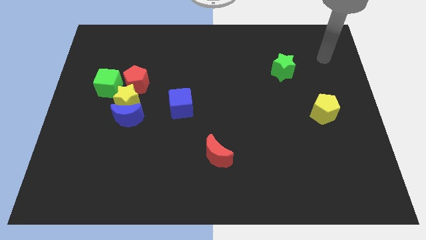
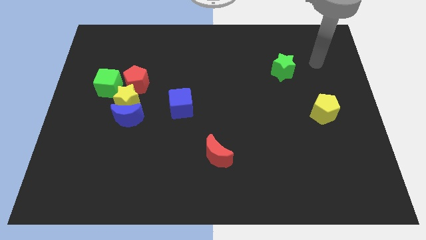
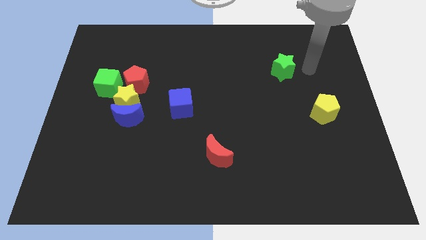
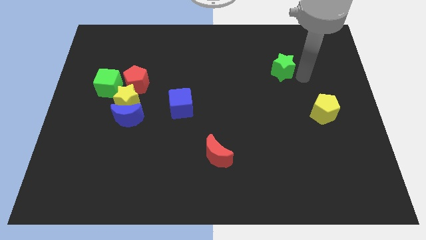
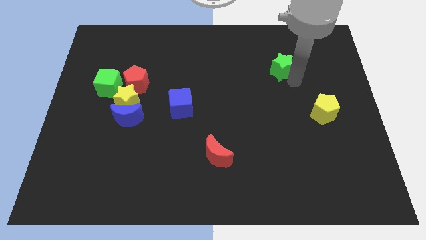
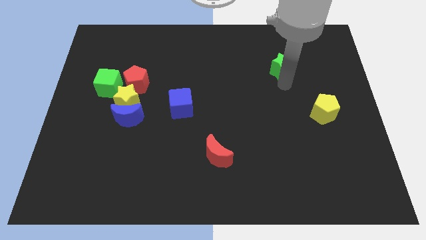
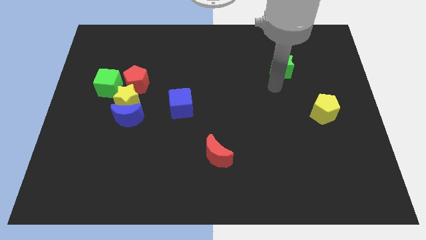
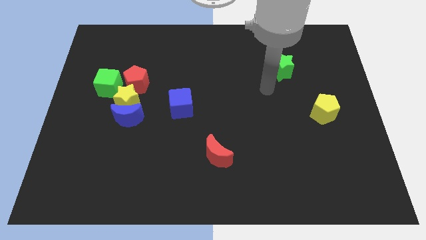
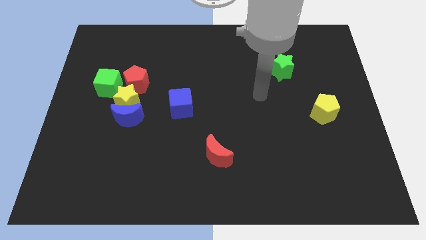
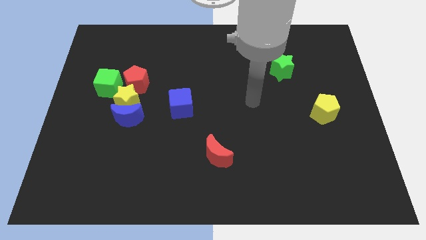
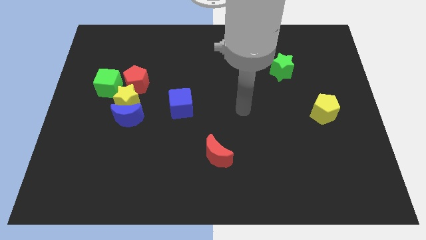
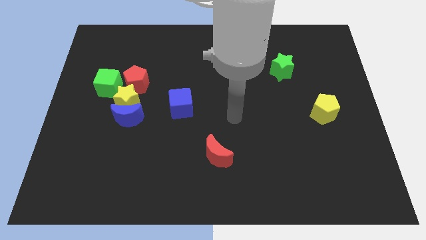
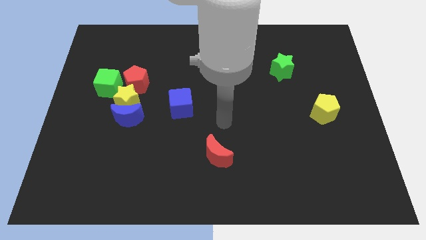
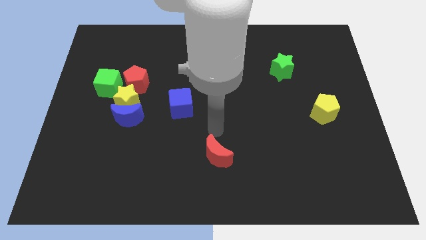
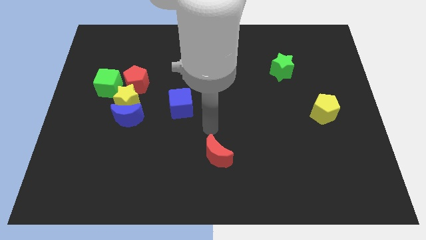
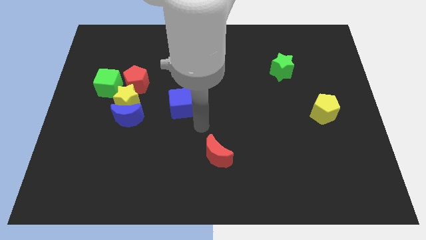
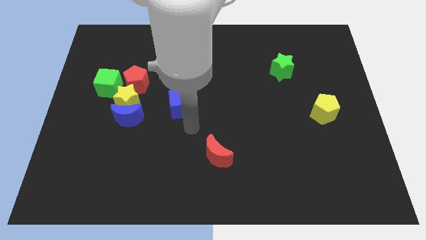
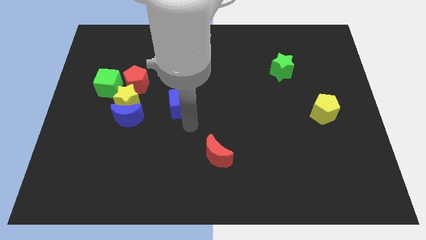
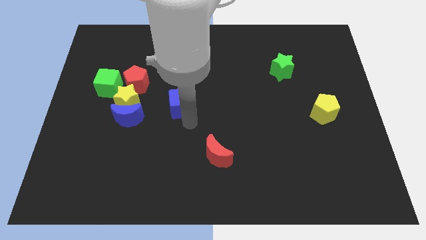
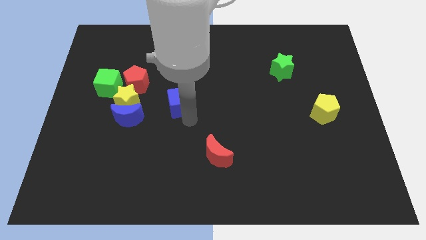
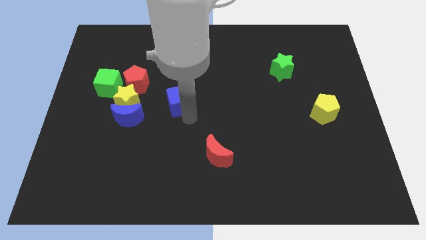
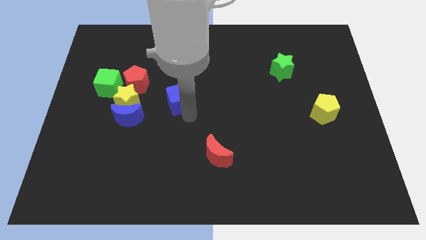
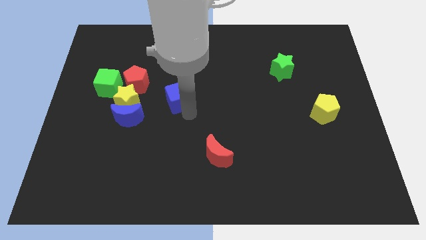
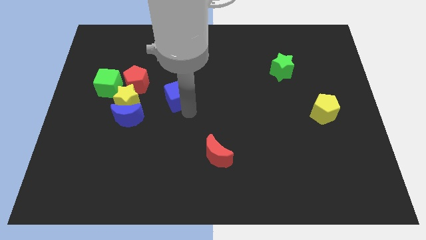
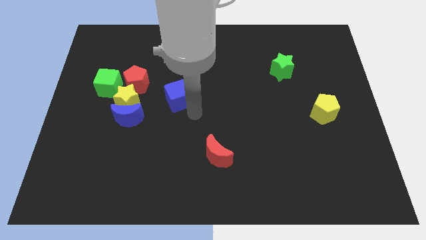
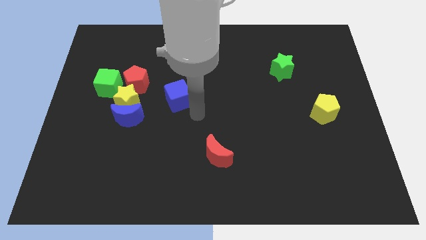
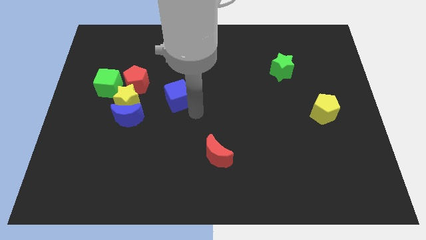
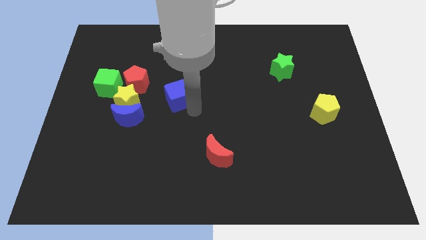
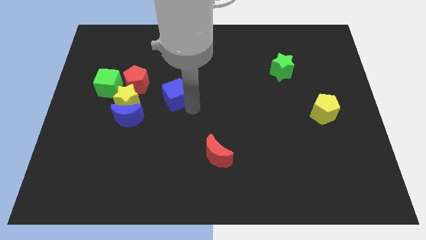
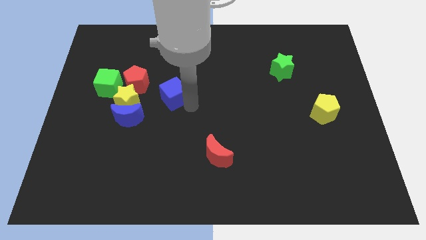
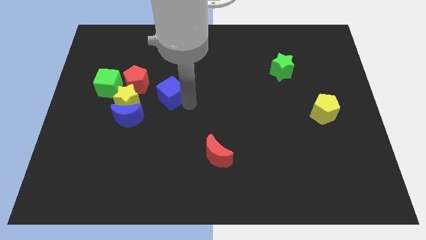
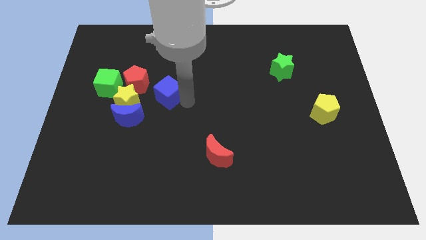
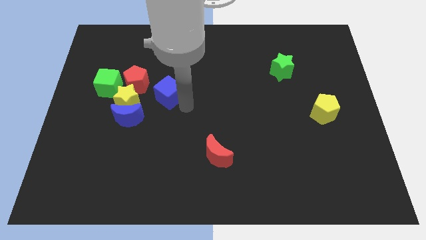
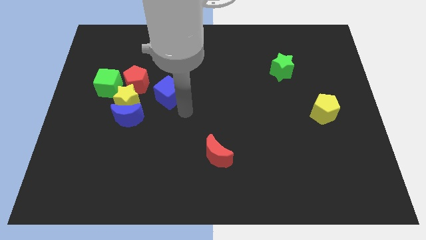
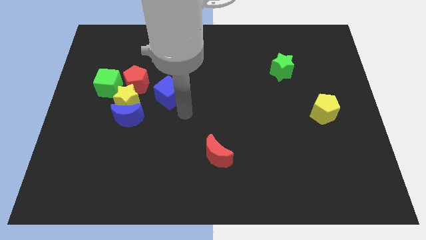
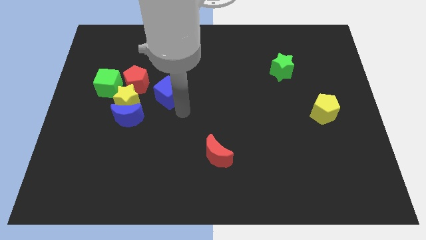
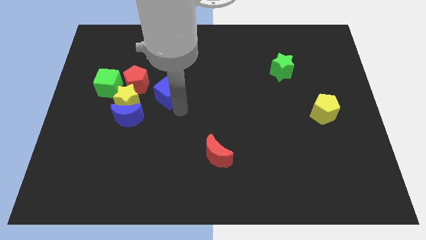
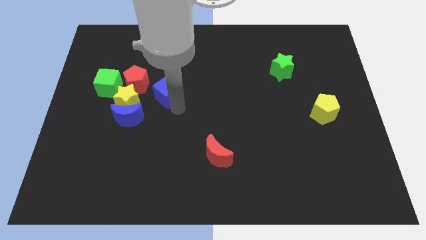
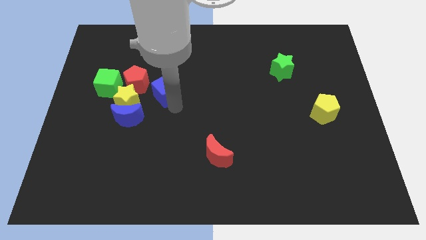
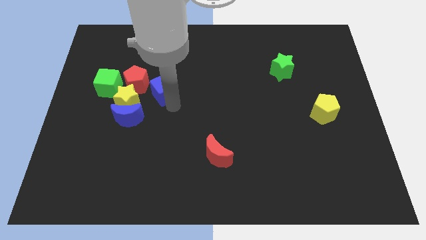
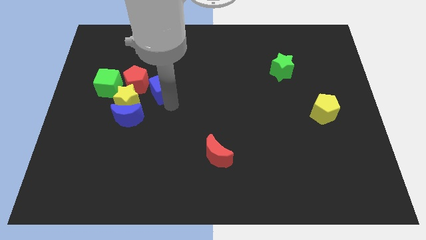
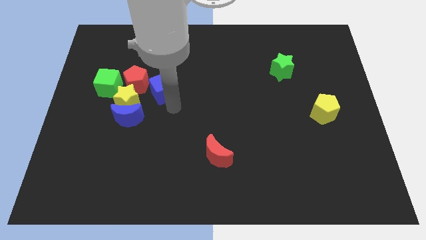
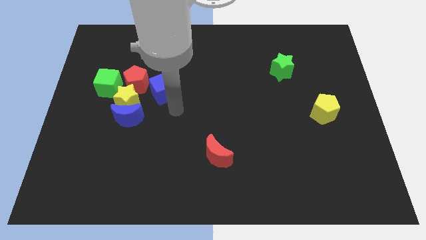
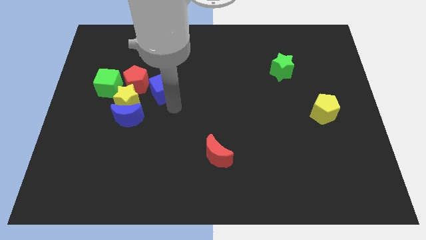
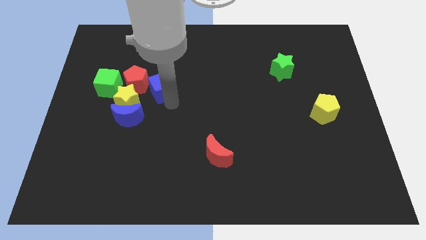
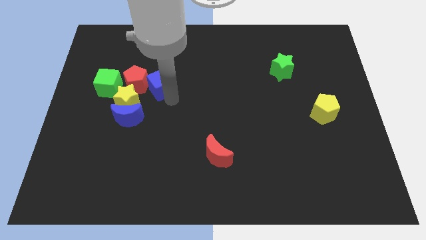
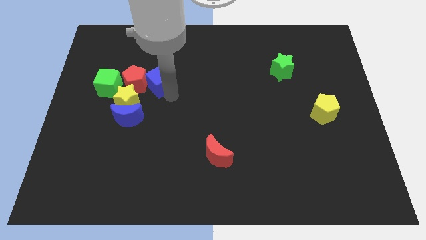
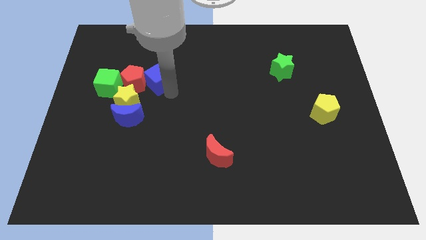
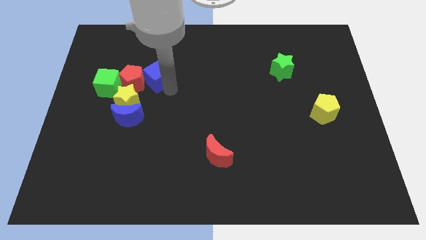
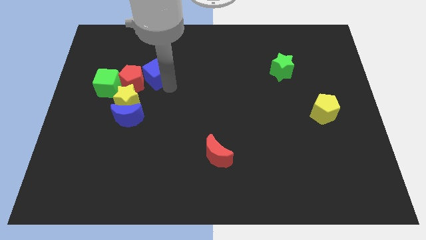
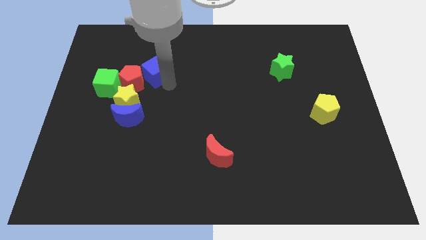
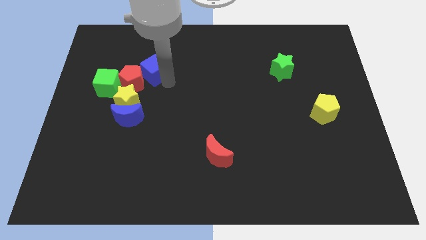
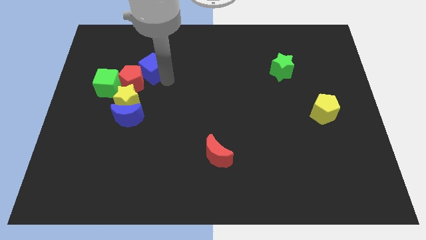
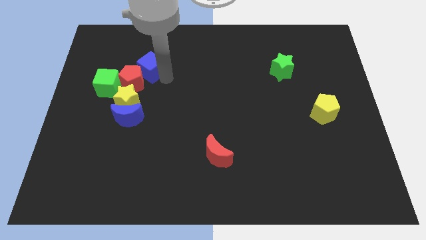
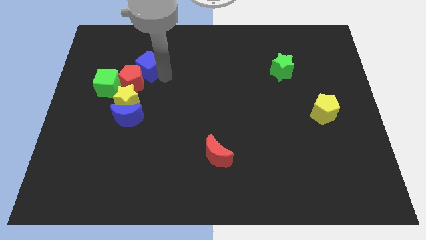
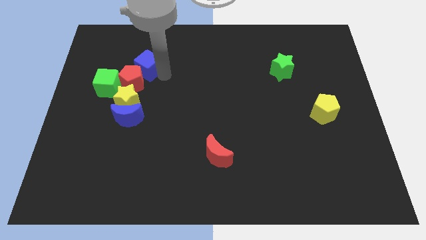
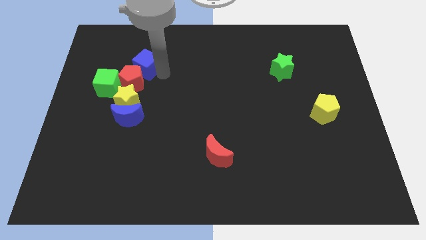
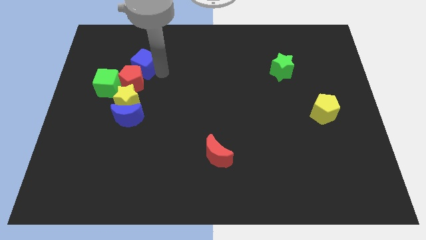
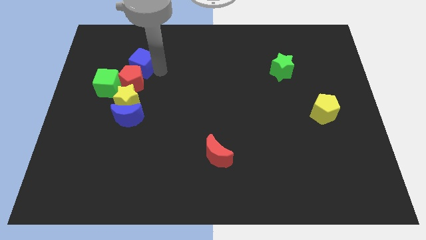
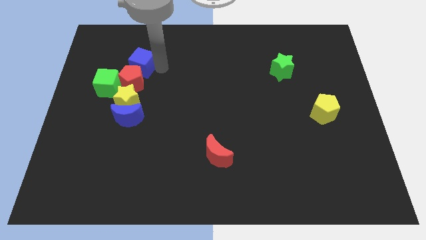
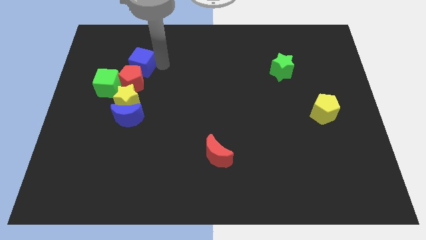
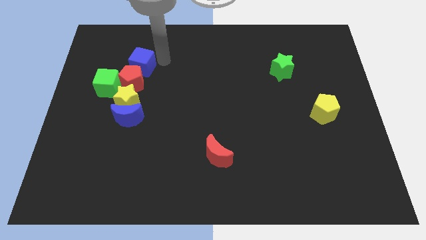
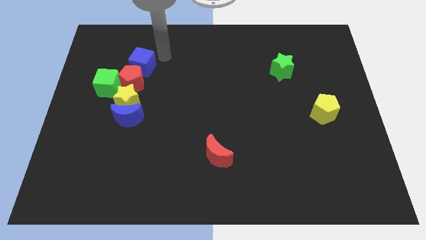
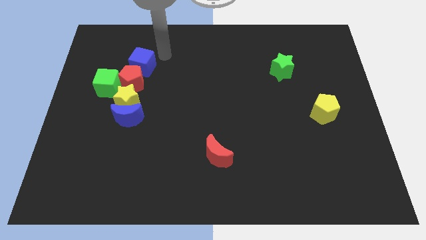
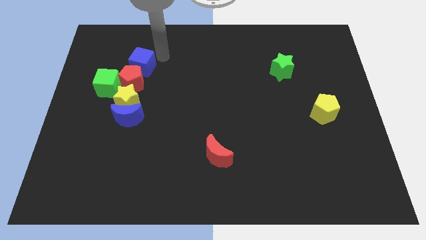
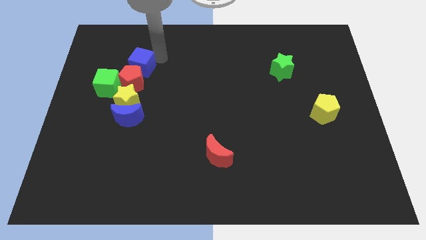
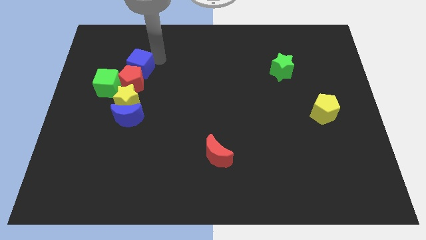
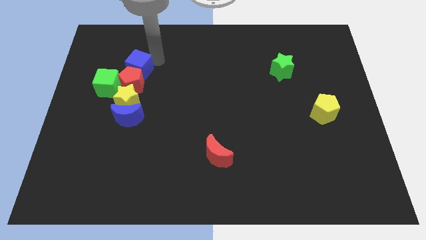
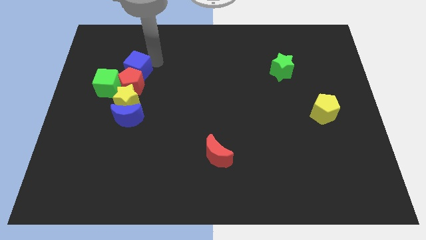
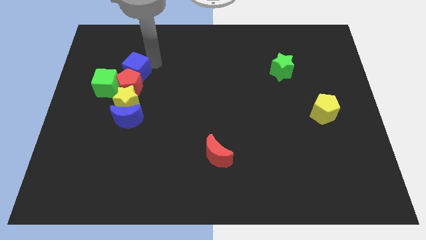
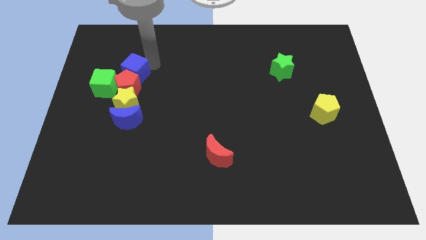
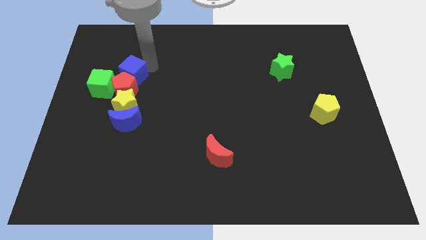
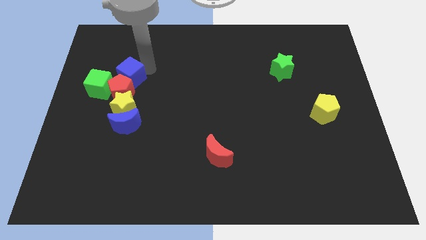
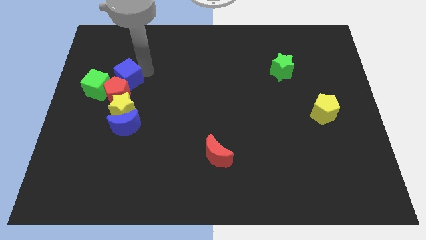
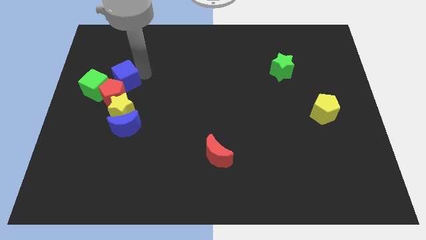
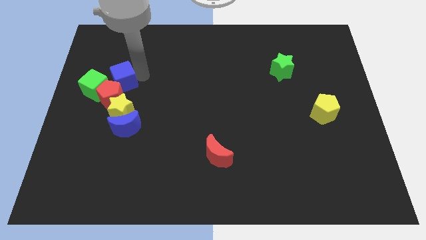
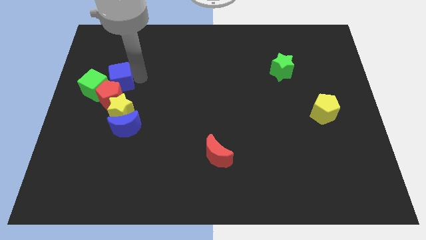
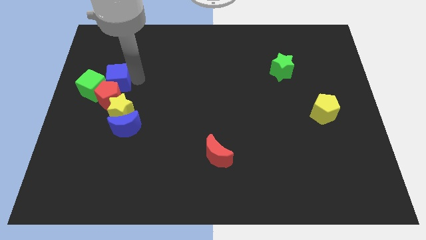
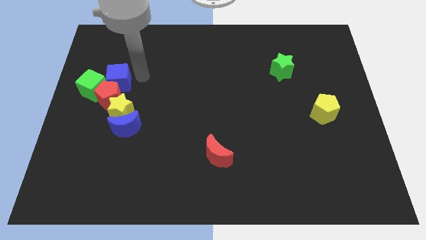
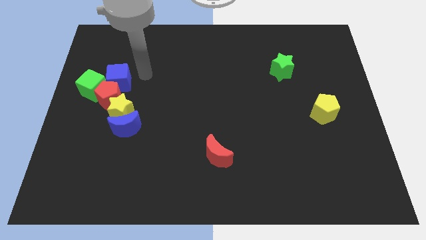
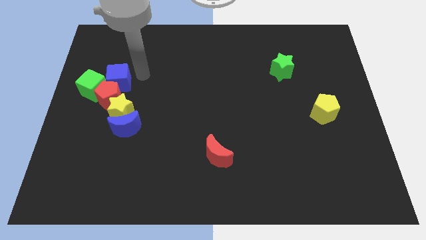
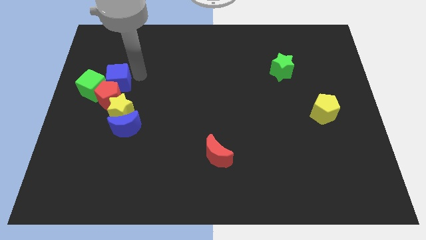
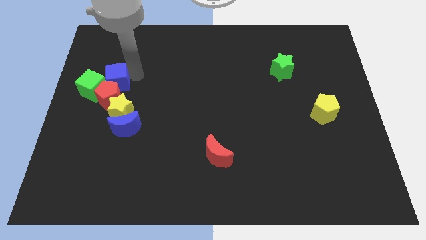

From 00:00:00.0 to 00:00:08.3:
slide the blue cube next to the green cube
